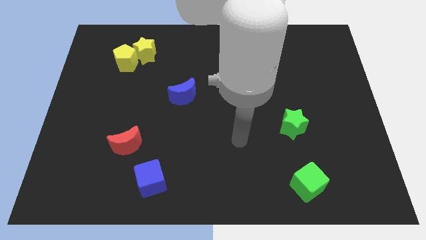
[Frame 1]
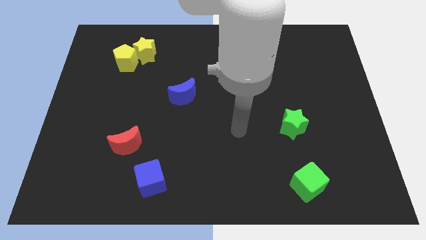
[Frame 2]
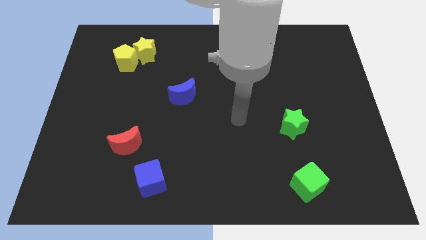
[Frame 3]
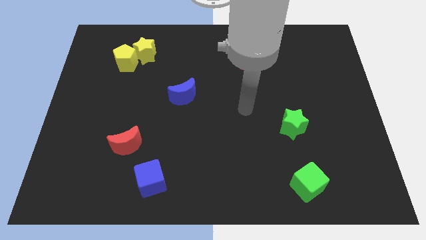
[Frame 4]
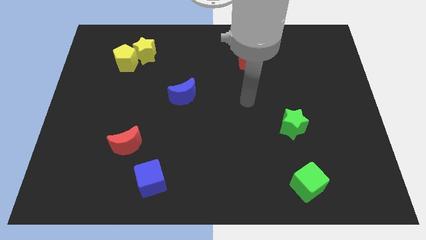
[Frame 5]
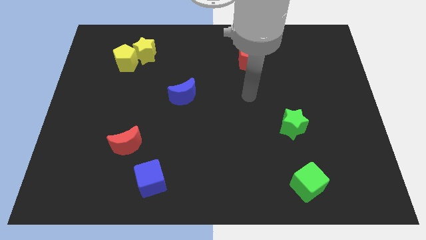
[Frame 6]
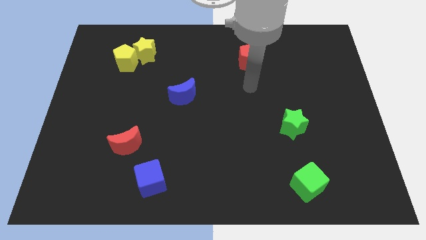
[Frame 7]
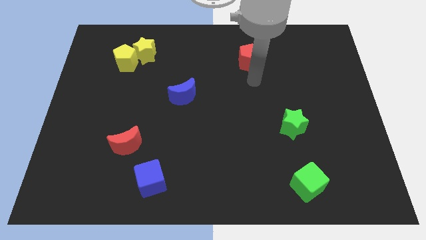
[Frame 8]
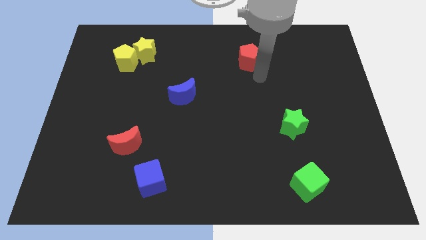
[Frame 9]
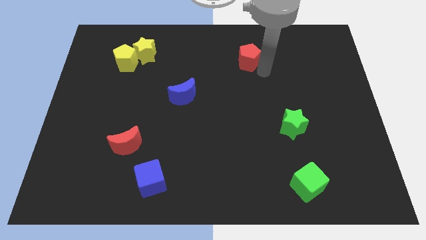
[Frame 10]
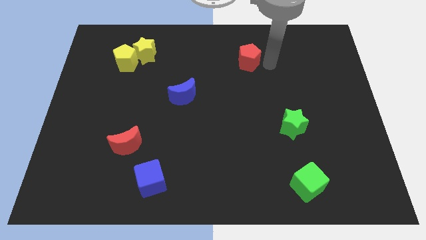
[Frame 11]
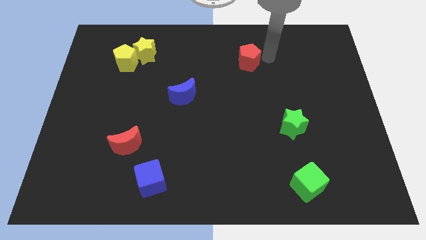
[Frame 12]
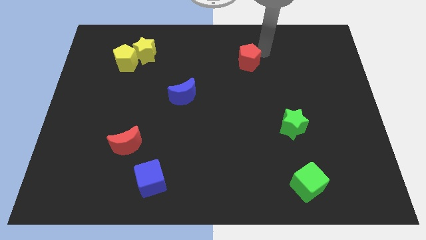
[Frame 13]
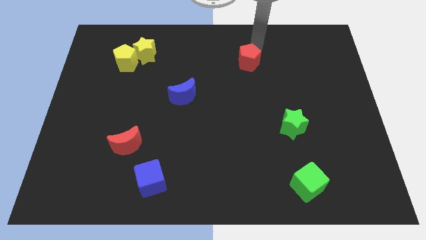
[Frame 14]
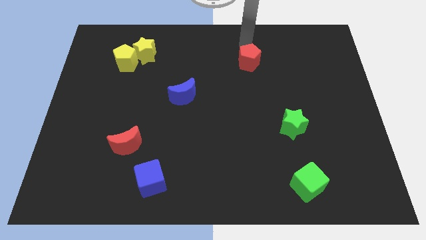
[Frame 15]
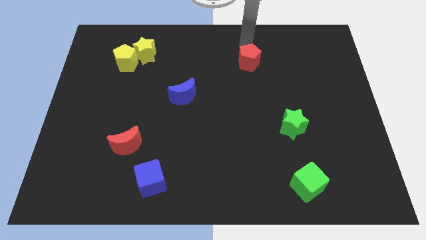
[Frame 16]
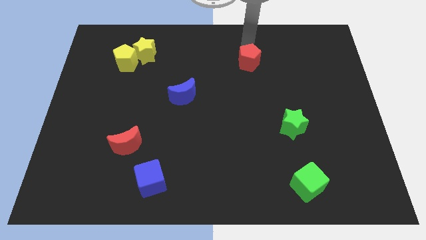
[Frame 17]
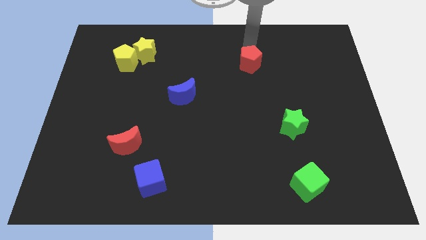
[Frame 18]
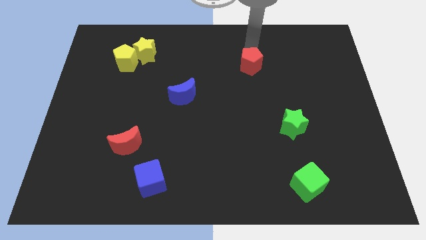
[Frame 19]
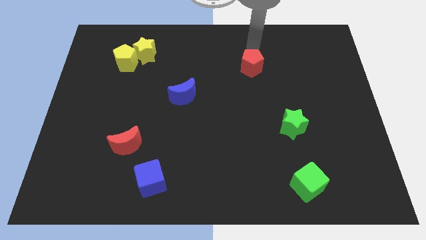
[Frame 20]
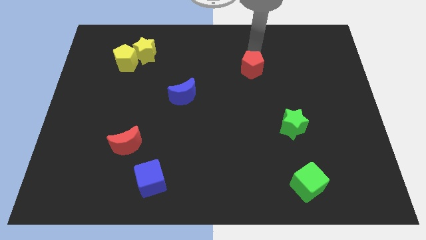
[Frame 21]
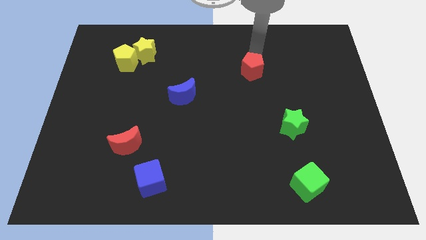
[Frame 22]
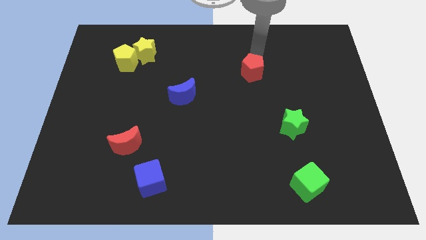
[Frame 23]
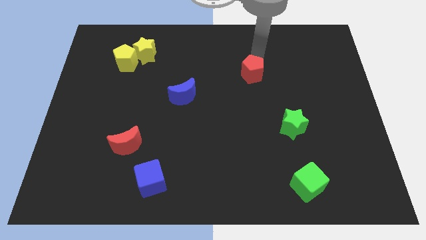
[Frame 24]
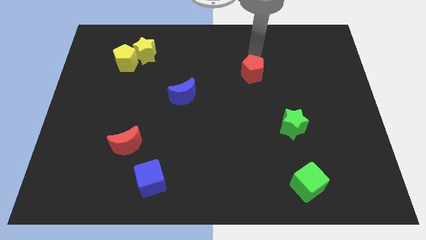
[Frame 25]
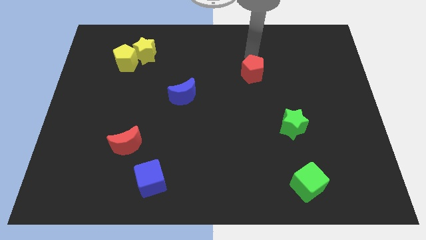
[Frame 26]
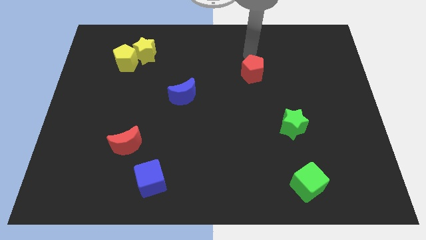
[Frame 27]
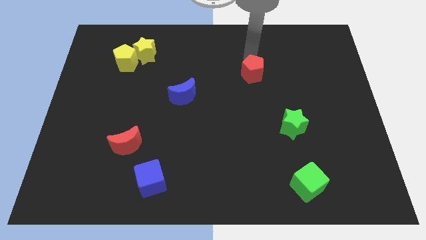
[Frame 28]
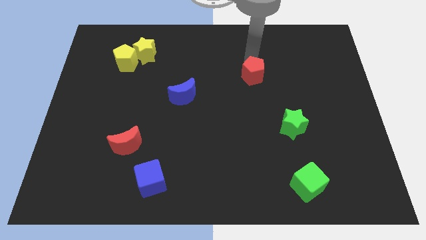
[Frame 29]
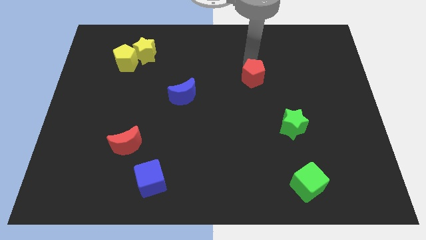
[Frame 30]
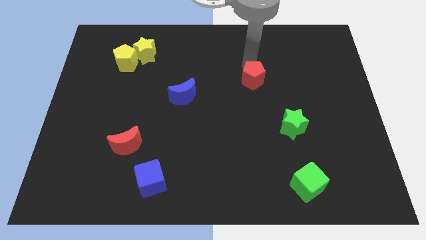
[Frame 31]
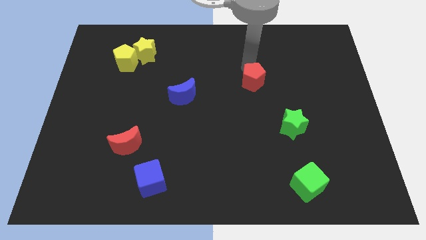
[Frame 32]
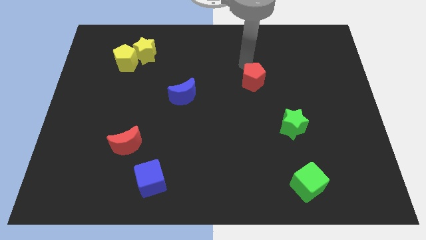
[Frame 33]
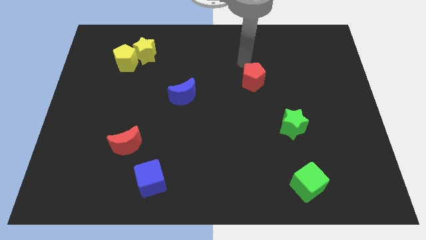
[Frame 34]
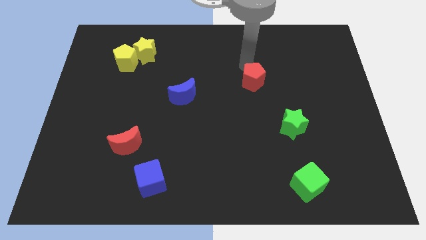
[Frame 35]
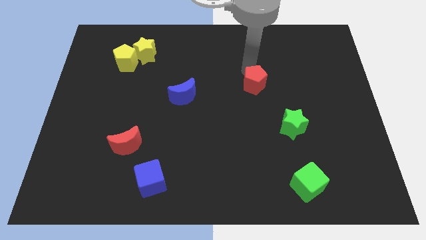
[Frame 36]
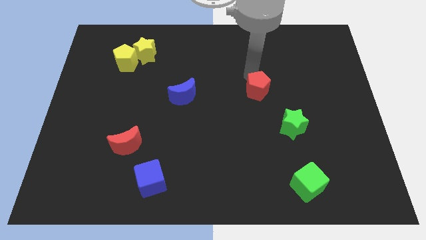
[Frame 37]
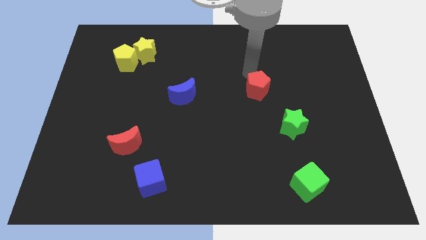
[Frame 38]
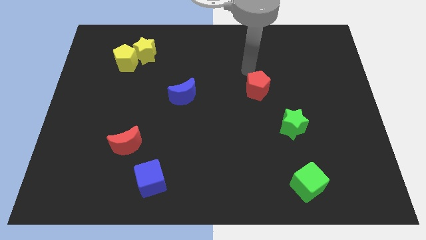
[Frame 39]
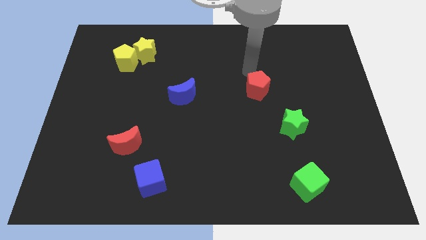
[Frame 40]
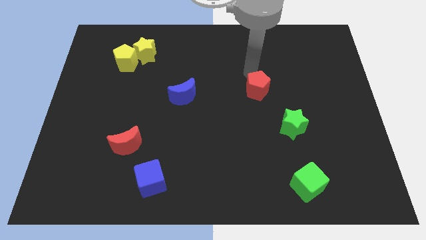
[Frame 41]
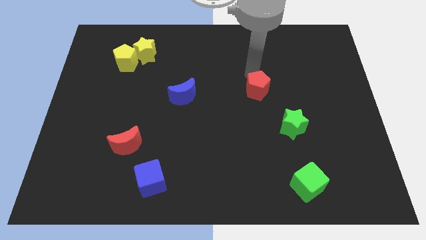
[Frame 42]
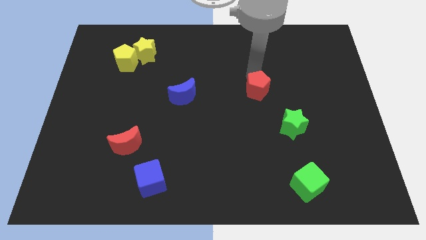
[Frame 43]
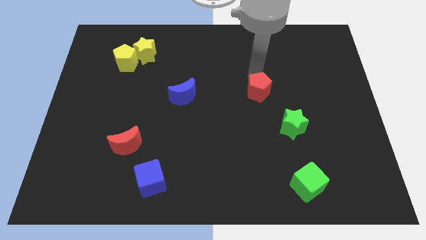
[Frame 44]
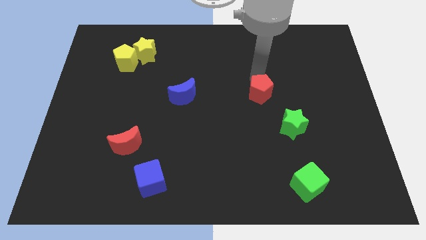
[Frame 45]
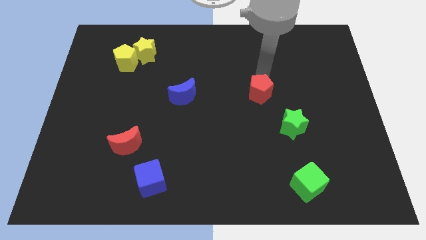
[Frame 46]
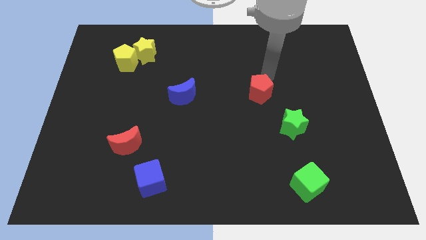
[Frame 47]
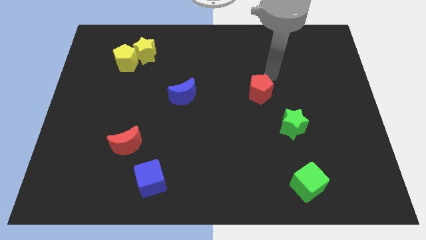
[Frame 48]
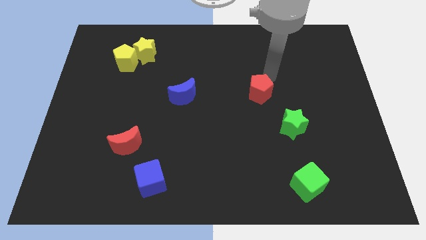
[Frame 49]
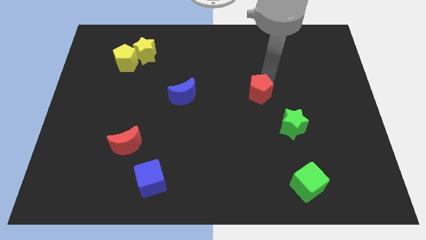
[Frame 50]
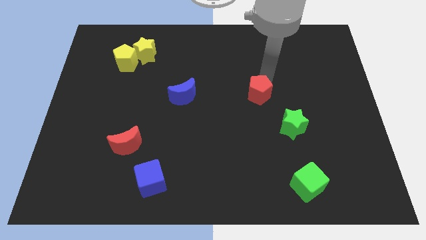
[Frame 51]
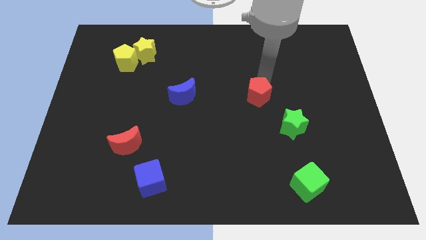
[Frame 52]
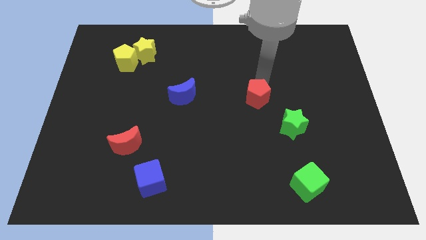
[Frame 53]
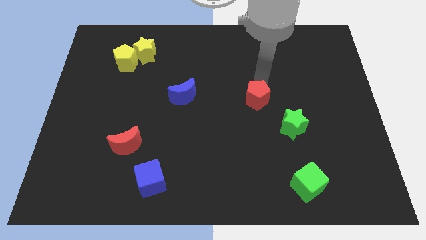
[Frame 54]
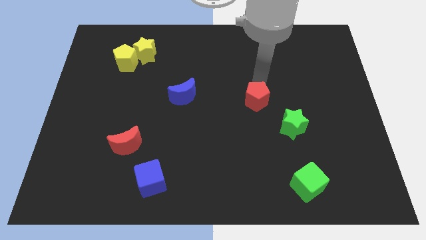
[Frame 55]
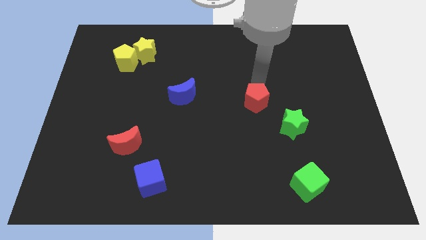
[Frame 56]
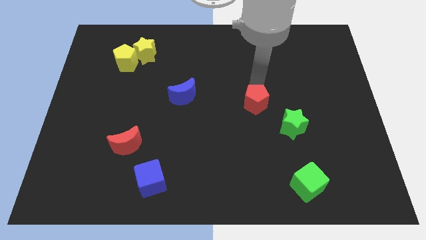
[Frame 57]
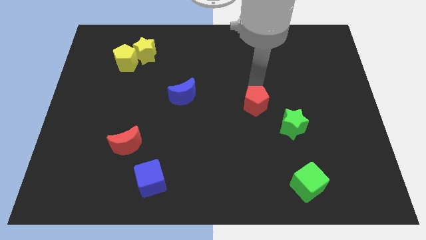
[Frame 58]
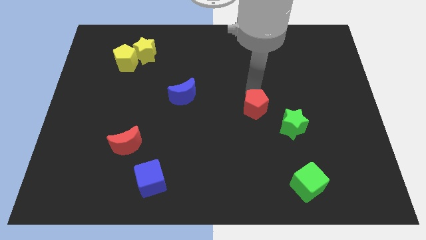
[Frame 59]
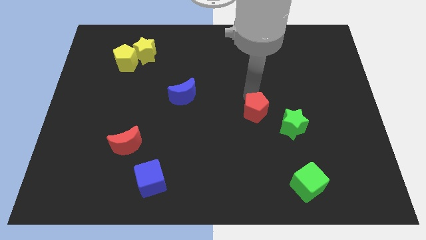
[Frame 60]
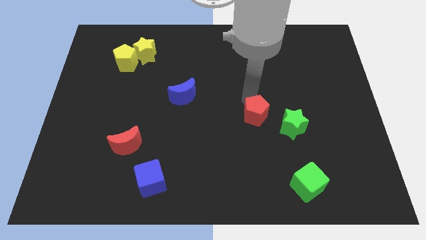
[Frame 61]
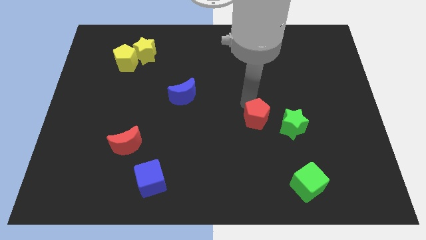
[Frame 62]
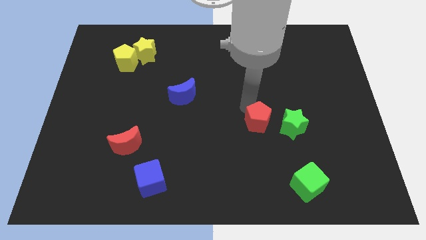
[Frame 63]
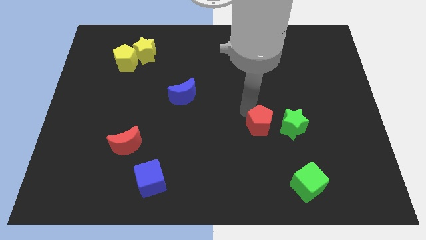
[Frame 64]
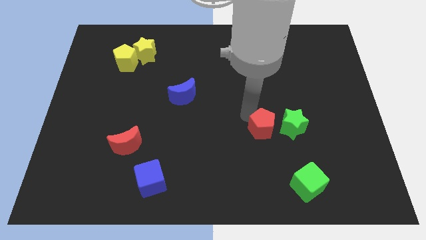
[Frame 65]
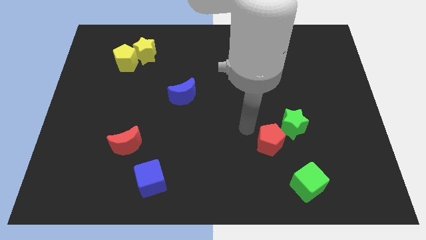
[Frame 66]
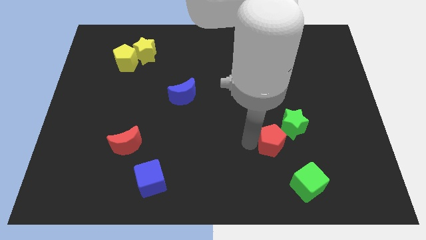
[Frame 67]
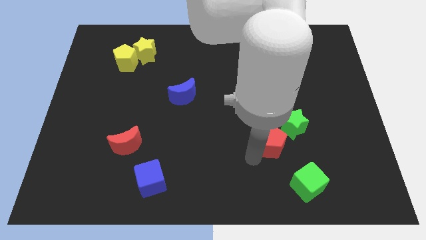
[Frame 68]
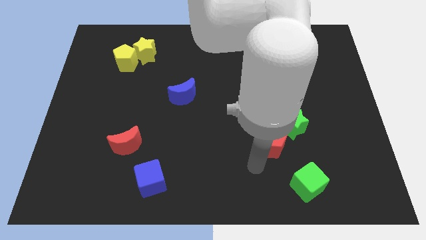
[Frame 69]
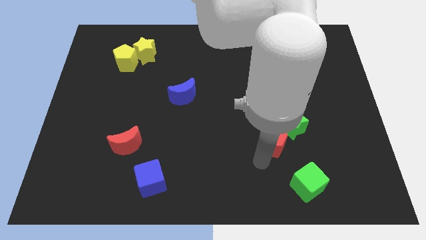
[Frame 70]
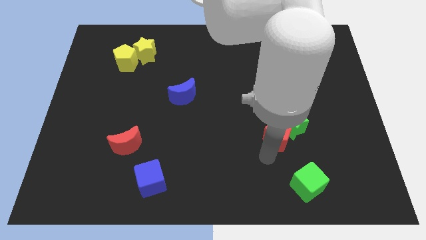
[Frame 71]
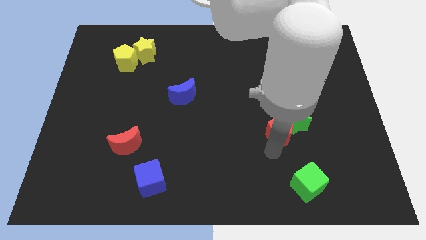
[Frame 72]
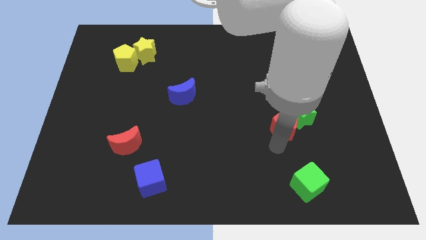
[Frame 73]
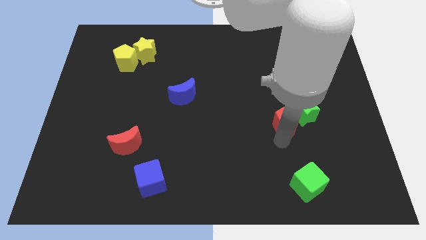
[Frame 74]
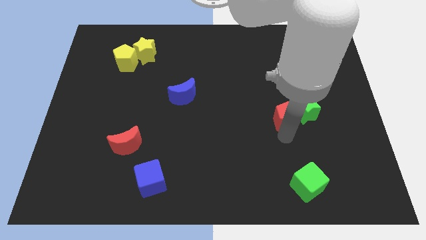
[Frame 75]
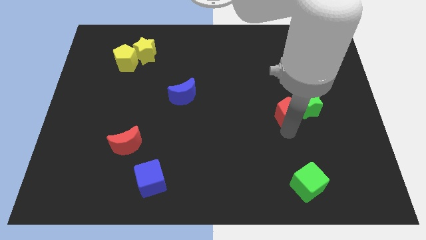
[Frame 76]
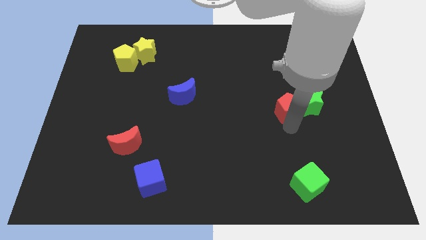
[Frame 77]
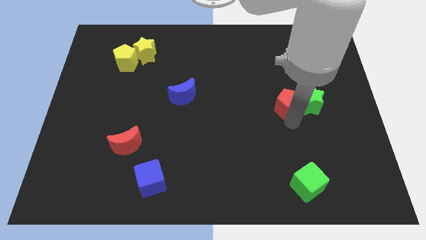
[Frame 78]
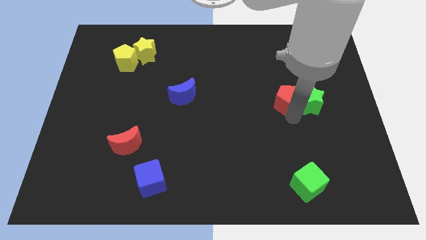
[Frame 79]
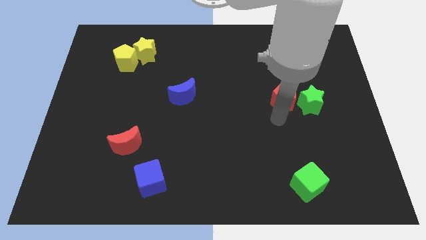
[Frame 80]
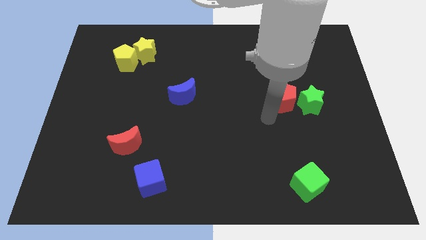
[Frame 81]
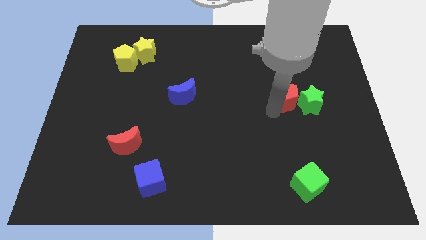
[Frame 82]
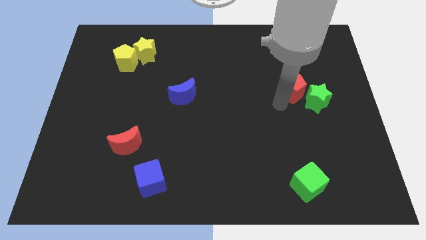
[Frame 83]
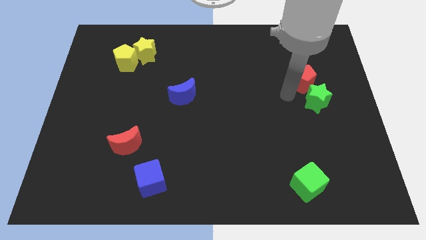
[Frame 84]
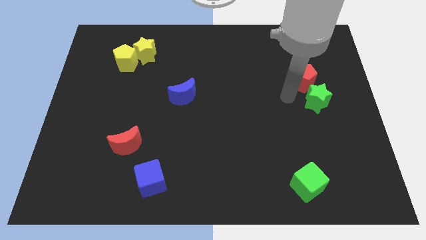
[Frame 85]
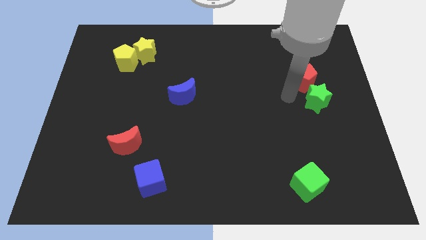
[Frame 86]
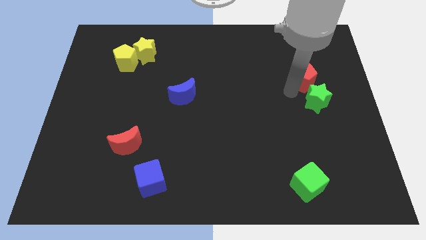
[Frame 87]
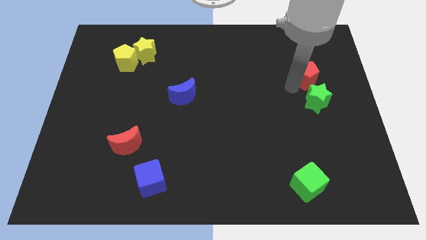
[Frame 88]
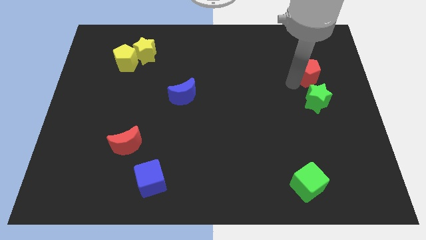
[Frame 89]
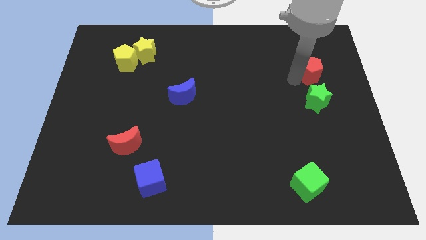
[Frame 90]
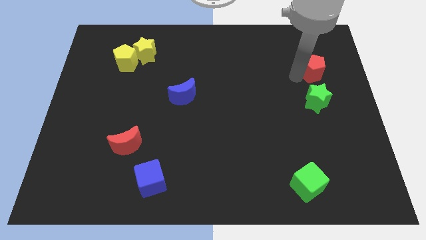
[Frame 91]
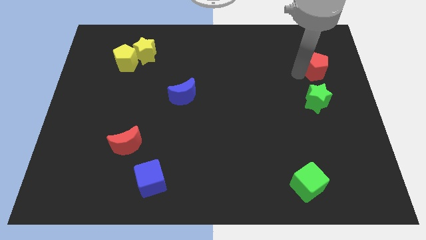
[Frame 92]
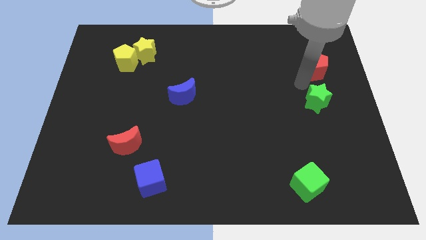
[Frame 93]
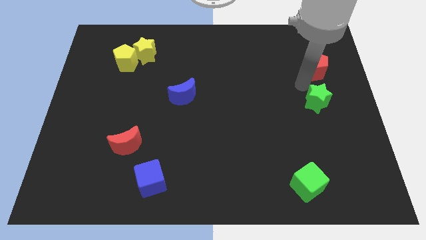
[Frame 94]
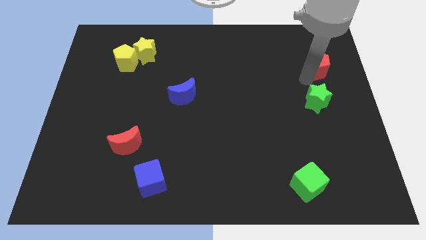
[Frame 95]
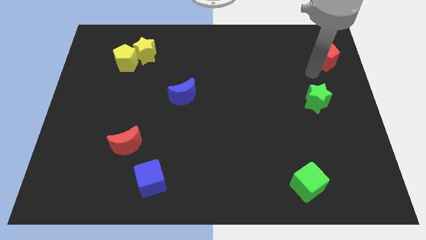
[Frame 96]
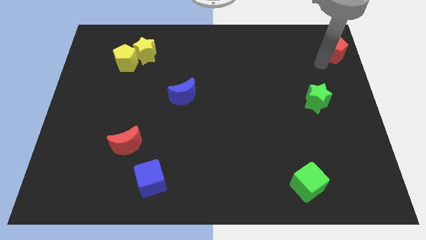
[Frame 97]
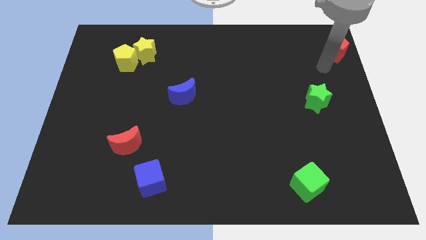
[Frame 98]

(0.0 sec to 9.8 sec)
put the red pentagon to the top right corner
